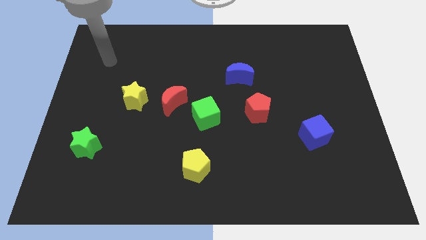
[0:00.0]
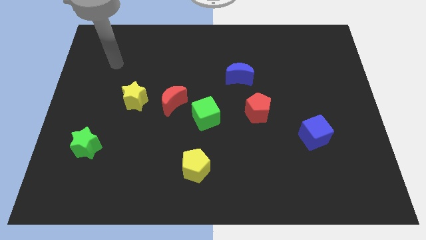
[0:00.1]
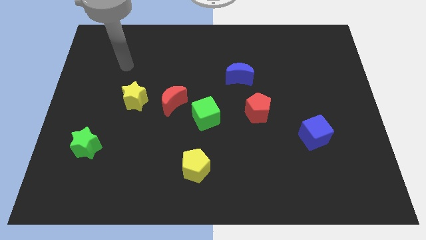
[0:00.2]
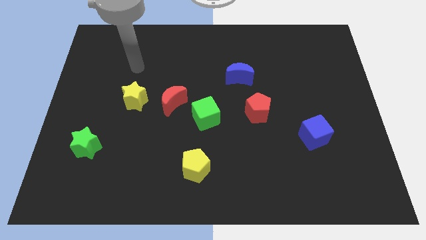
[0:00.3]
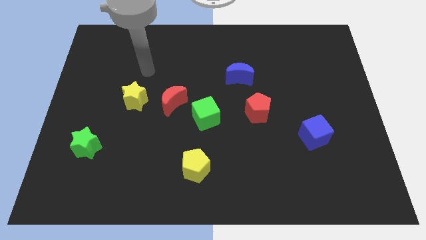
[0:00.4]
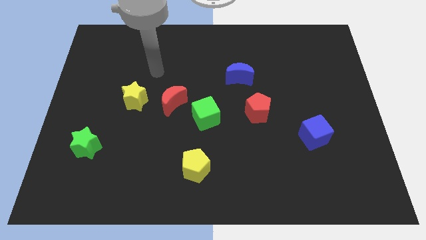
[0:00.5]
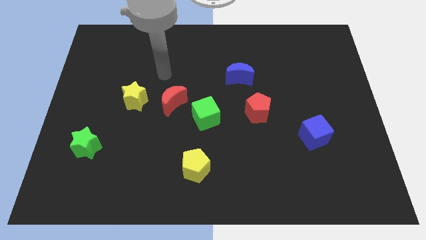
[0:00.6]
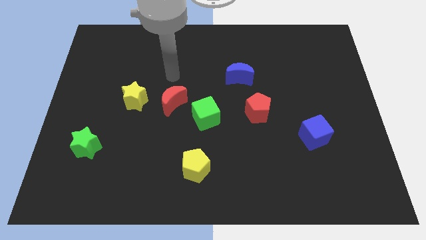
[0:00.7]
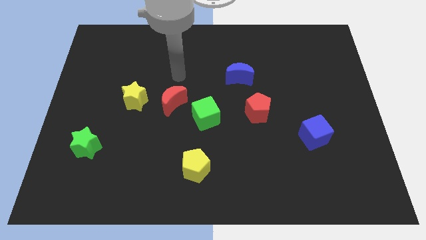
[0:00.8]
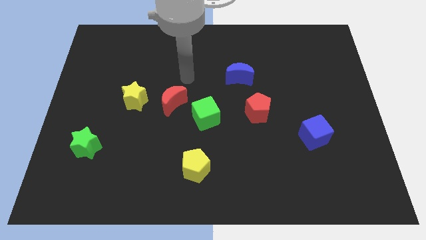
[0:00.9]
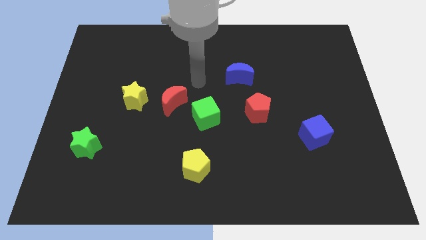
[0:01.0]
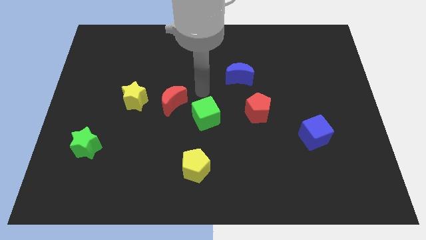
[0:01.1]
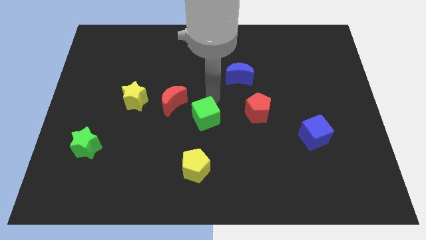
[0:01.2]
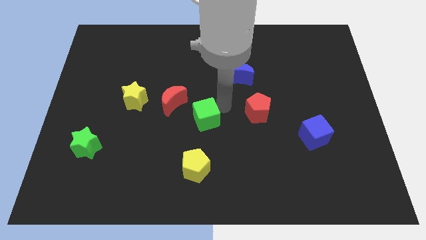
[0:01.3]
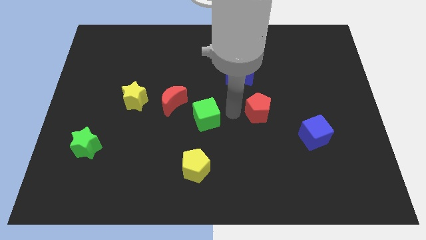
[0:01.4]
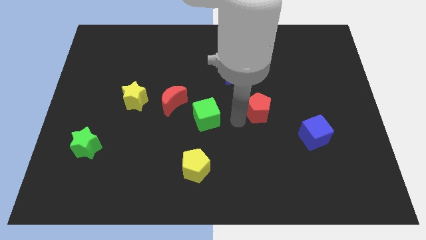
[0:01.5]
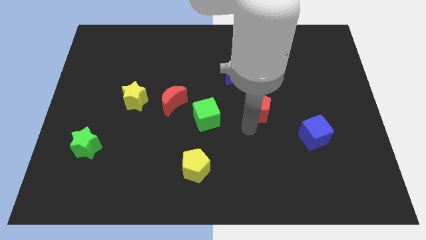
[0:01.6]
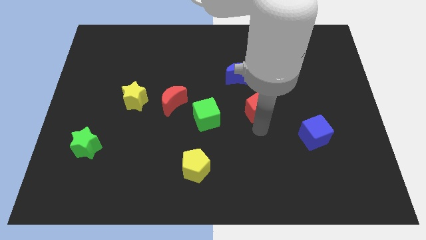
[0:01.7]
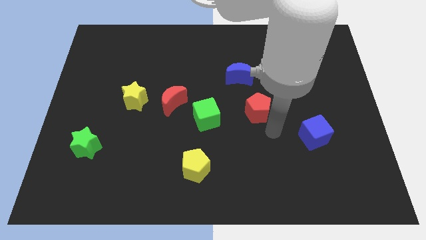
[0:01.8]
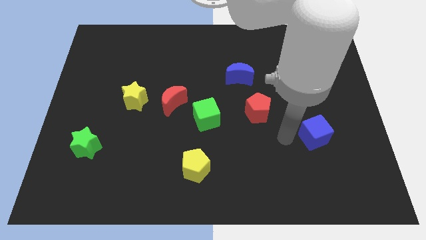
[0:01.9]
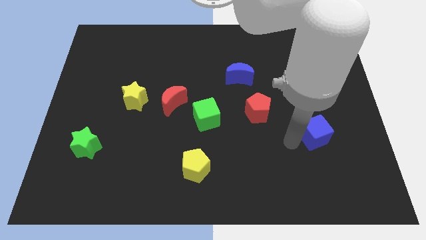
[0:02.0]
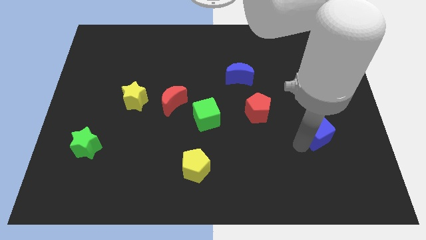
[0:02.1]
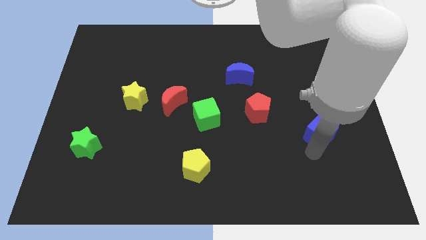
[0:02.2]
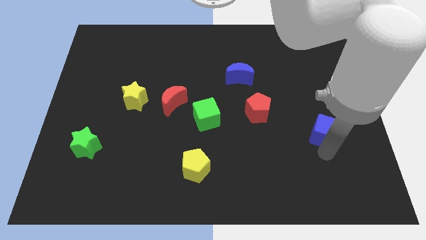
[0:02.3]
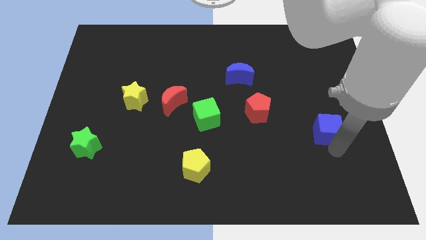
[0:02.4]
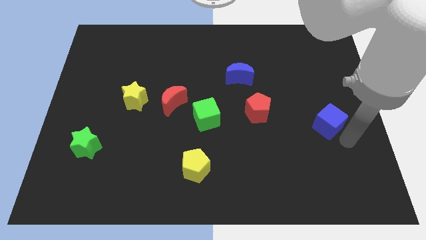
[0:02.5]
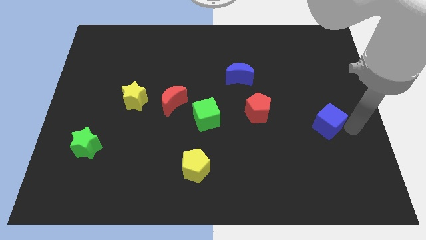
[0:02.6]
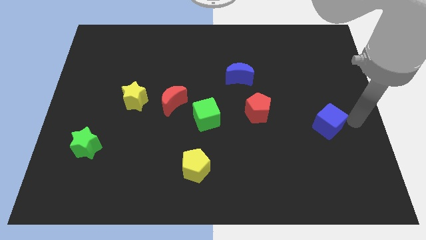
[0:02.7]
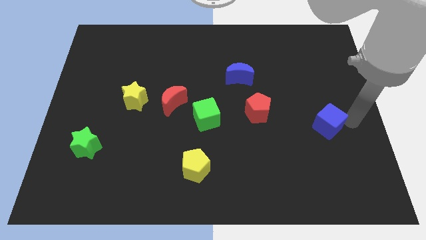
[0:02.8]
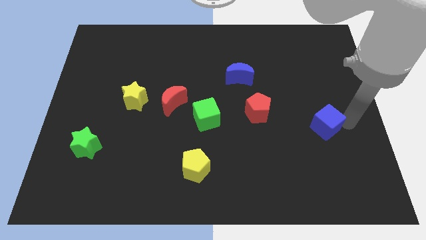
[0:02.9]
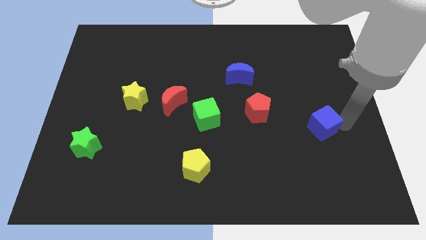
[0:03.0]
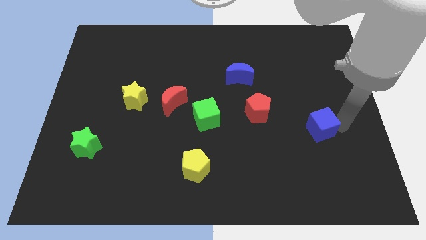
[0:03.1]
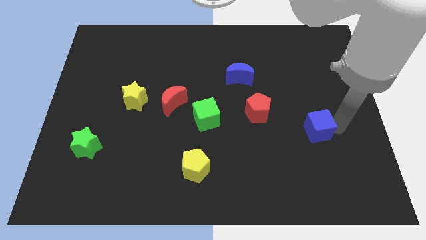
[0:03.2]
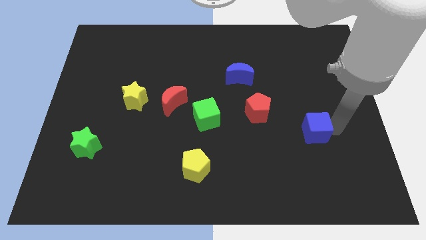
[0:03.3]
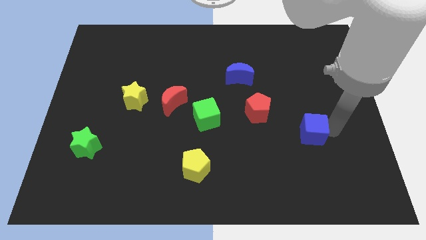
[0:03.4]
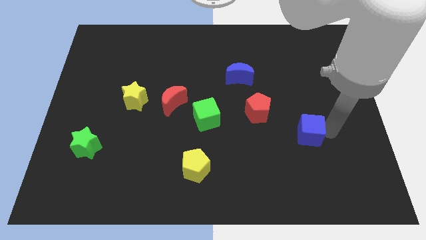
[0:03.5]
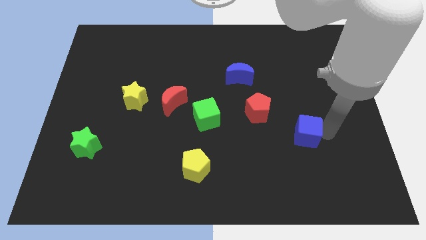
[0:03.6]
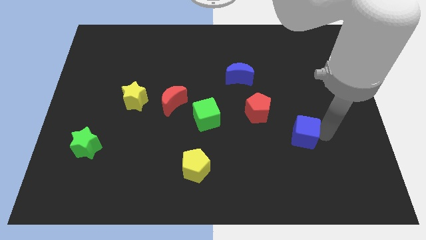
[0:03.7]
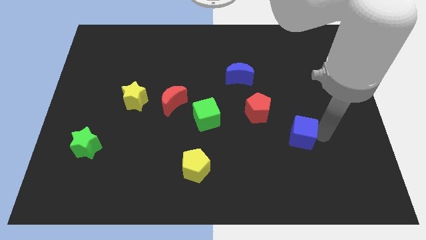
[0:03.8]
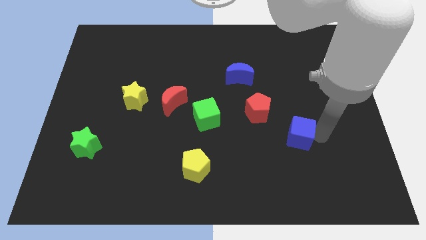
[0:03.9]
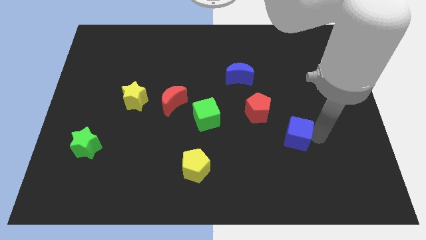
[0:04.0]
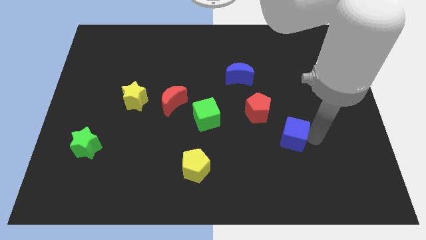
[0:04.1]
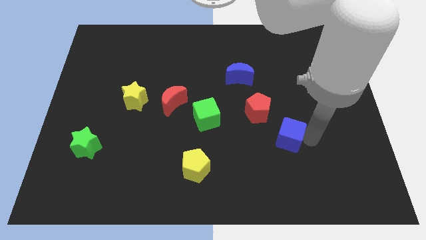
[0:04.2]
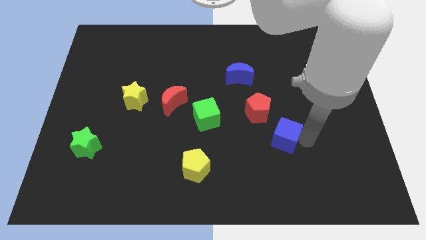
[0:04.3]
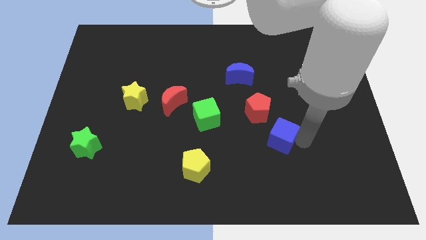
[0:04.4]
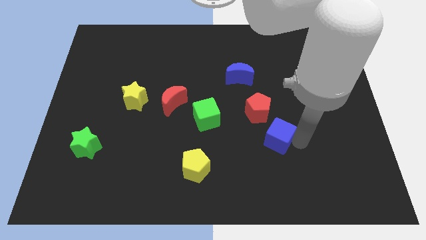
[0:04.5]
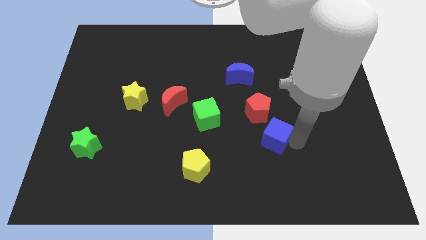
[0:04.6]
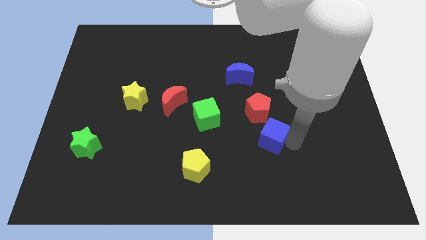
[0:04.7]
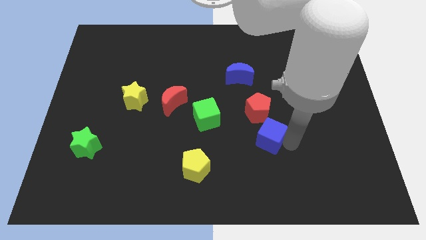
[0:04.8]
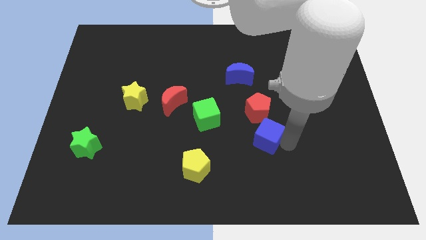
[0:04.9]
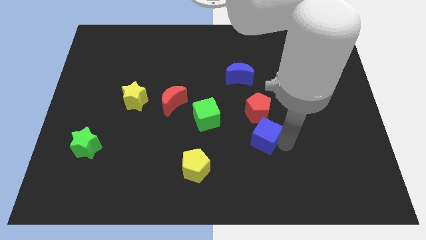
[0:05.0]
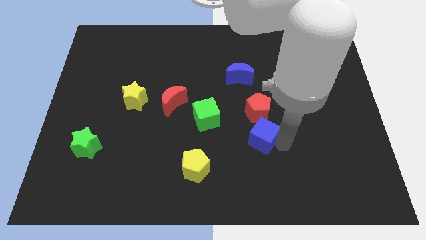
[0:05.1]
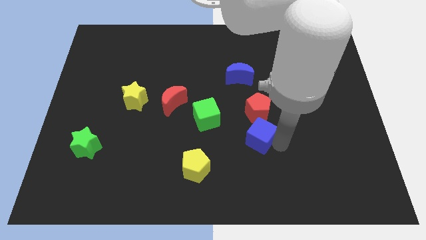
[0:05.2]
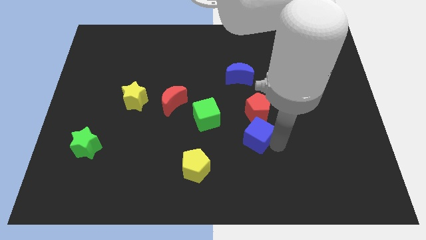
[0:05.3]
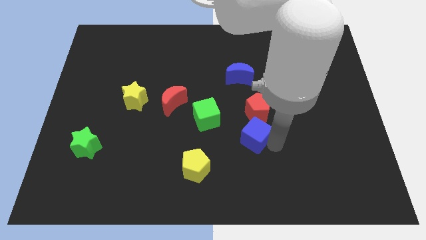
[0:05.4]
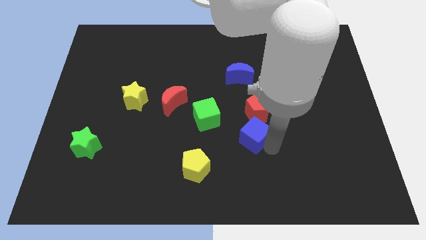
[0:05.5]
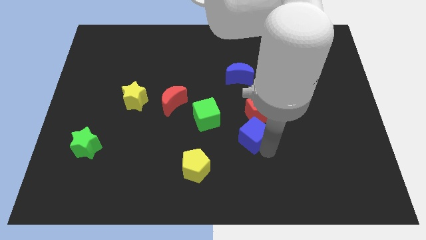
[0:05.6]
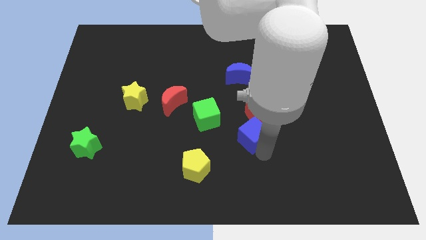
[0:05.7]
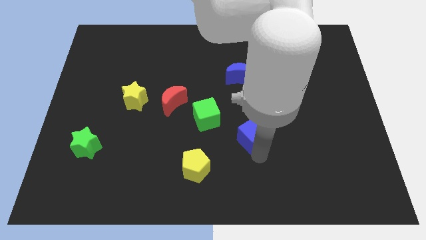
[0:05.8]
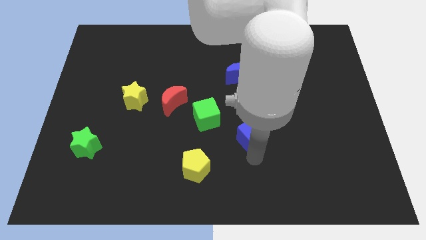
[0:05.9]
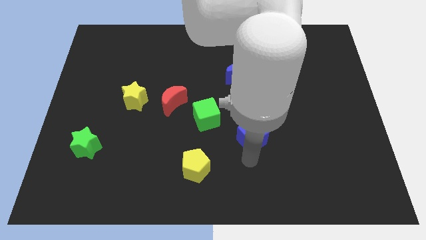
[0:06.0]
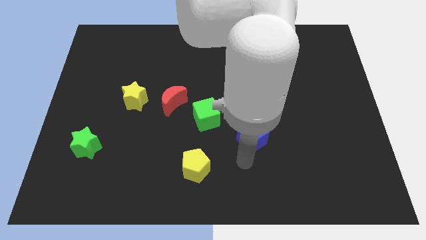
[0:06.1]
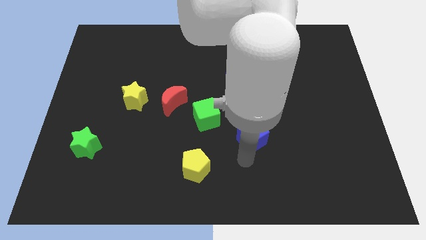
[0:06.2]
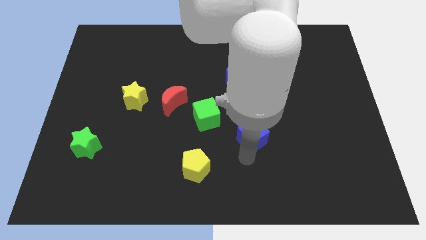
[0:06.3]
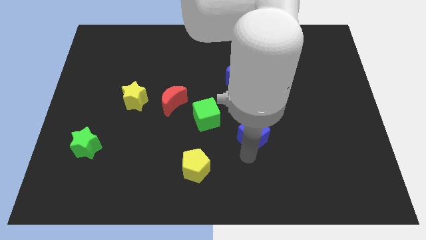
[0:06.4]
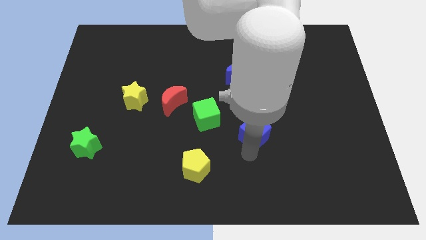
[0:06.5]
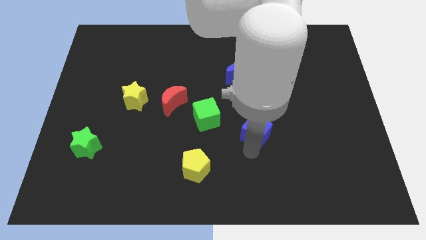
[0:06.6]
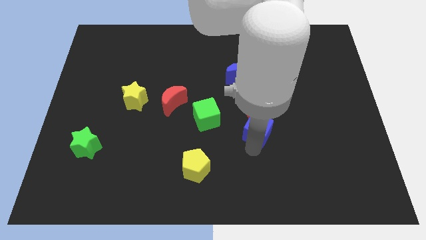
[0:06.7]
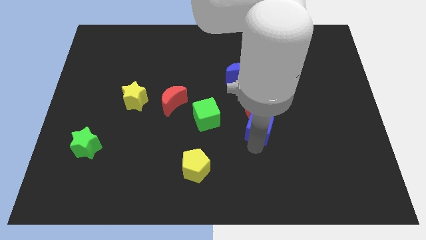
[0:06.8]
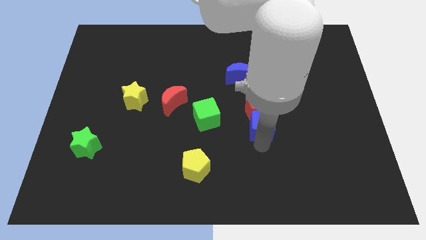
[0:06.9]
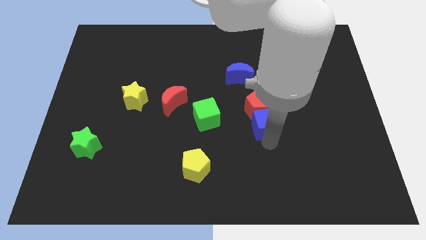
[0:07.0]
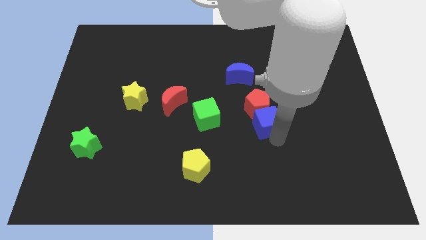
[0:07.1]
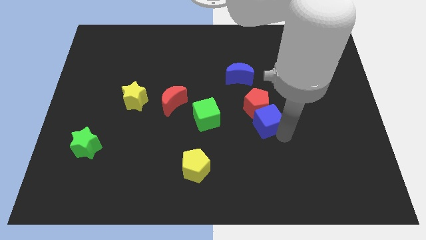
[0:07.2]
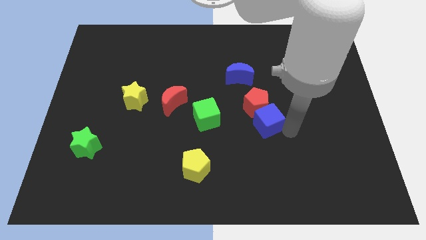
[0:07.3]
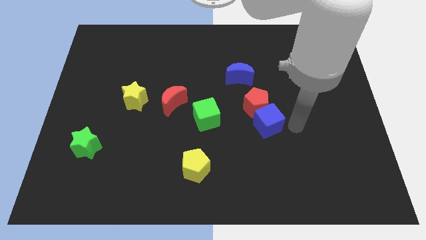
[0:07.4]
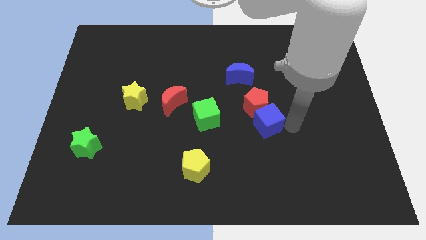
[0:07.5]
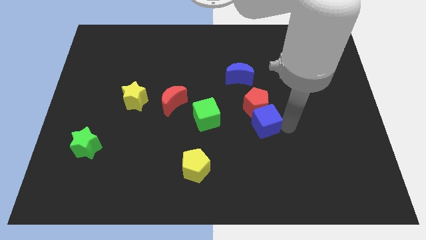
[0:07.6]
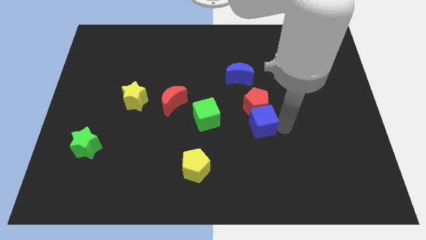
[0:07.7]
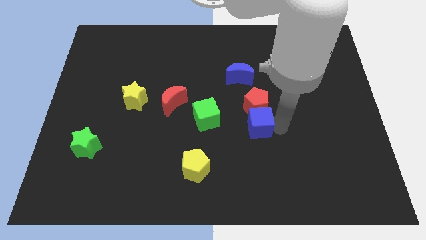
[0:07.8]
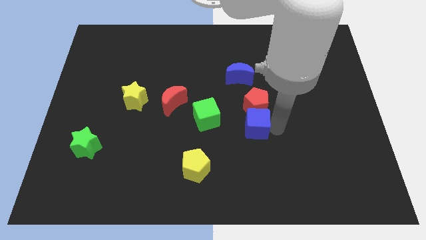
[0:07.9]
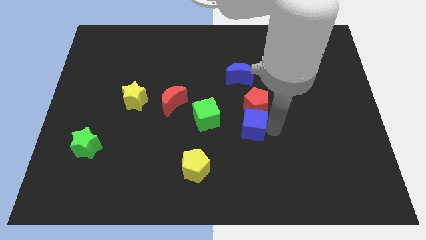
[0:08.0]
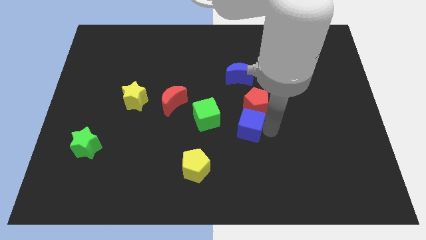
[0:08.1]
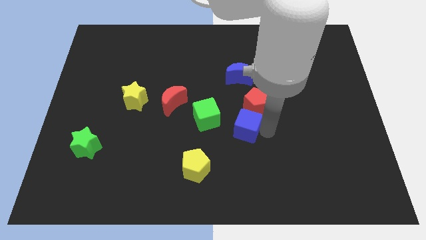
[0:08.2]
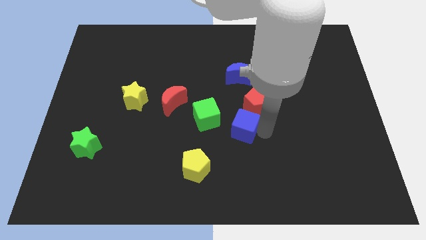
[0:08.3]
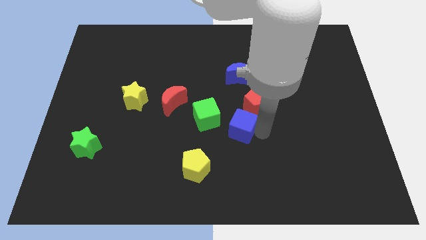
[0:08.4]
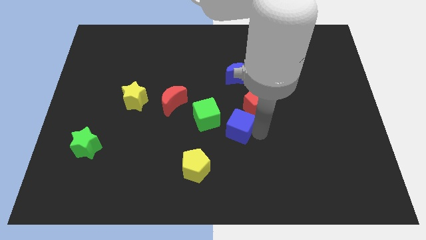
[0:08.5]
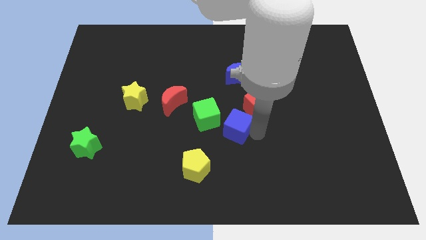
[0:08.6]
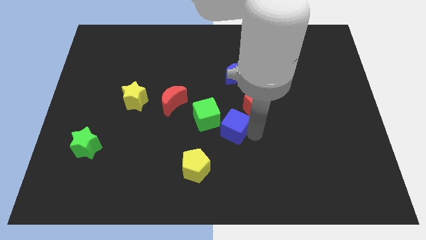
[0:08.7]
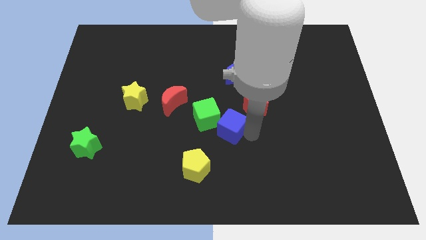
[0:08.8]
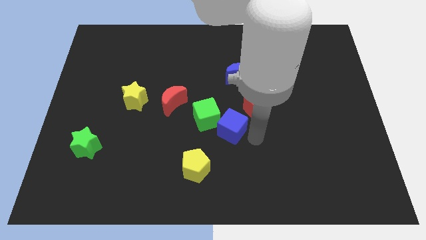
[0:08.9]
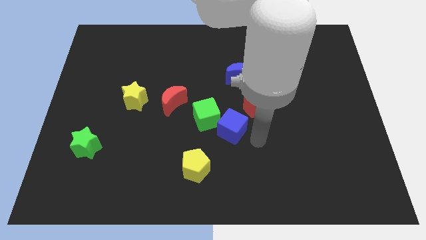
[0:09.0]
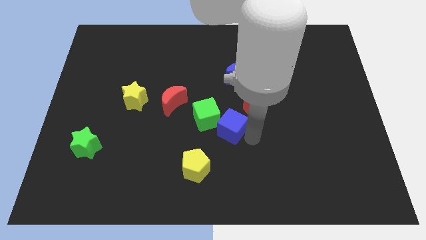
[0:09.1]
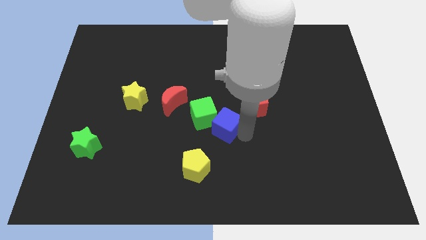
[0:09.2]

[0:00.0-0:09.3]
push the blue cube to the green cube
